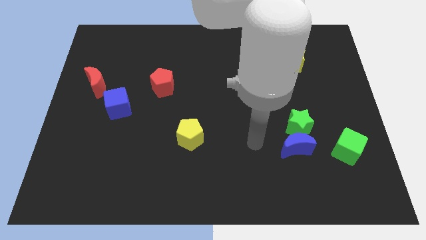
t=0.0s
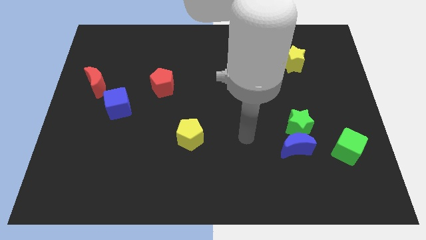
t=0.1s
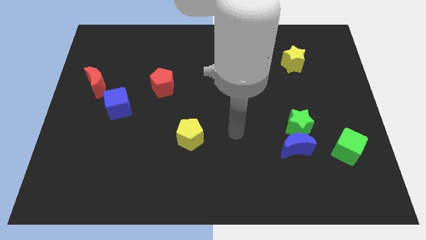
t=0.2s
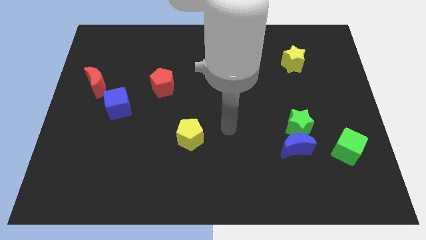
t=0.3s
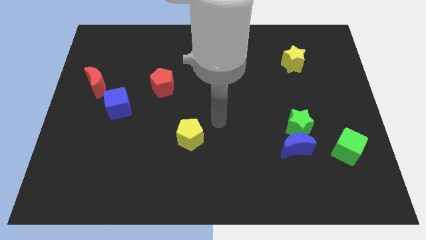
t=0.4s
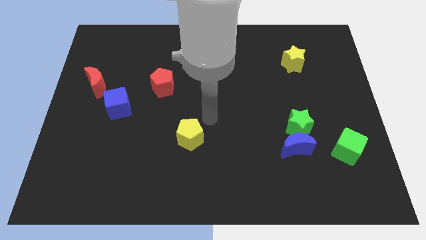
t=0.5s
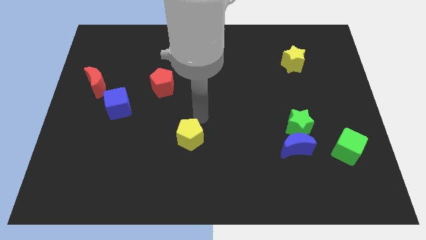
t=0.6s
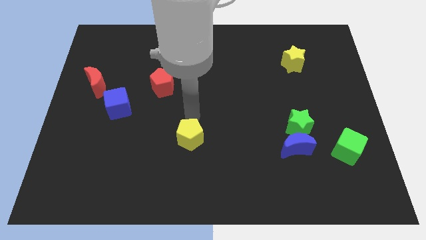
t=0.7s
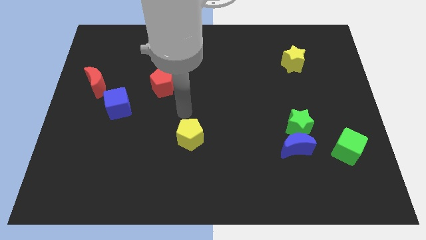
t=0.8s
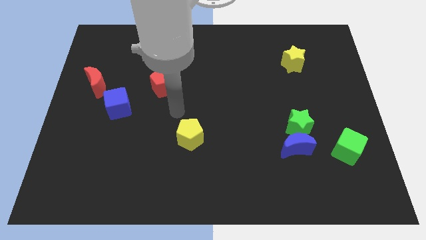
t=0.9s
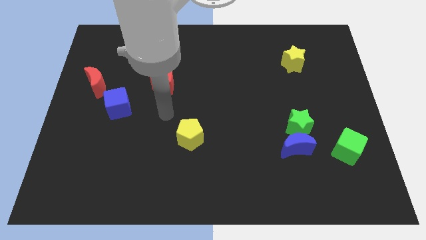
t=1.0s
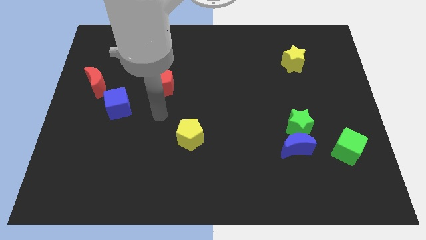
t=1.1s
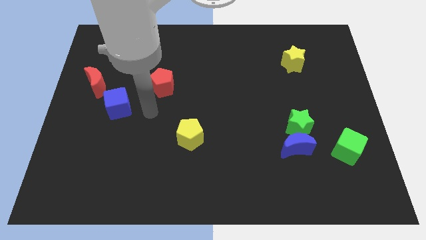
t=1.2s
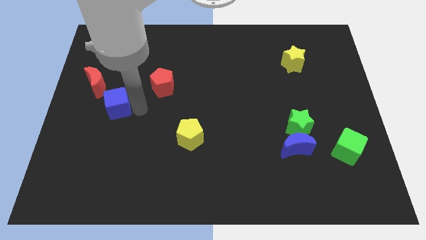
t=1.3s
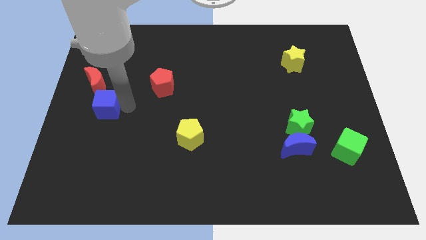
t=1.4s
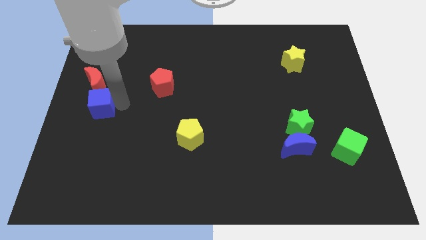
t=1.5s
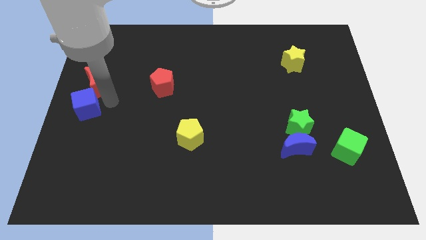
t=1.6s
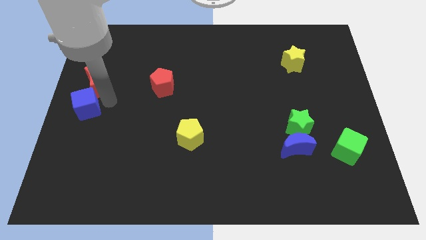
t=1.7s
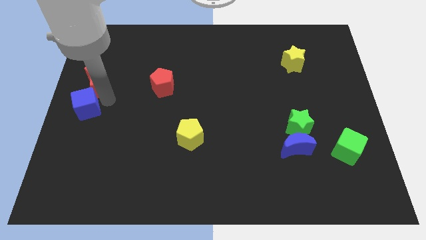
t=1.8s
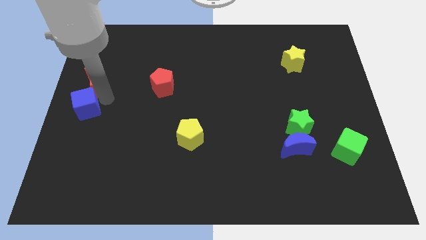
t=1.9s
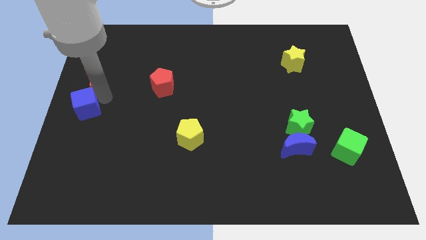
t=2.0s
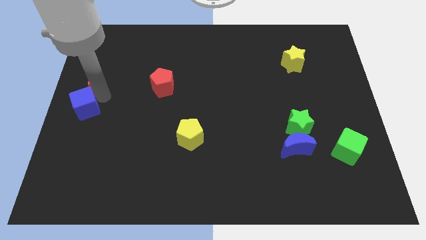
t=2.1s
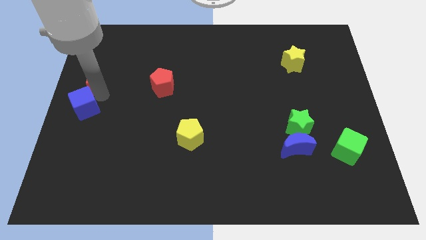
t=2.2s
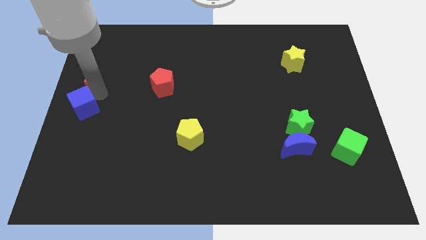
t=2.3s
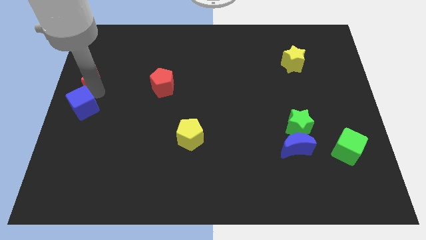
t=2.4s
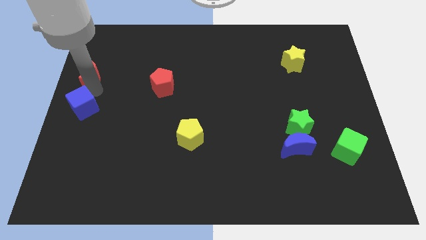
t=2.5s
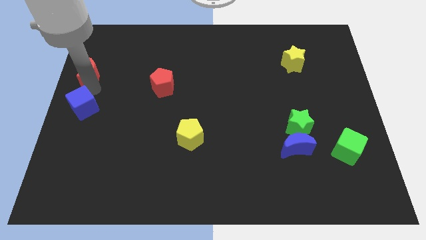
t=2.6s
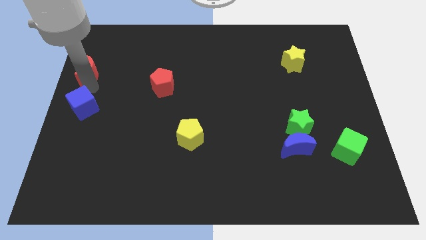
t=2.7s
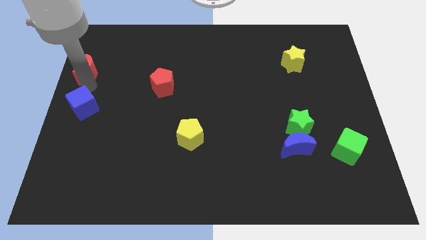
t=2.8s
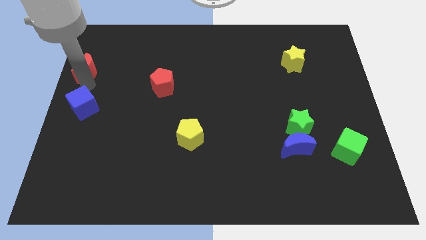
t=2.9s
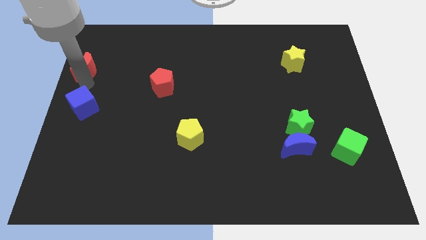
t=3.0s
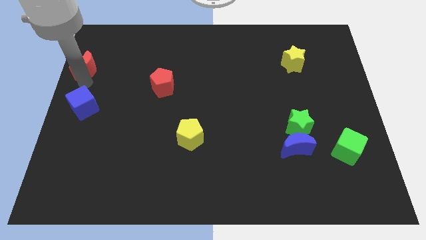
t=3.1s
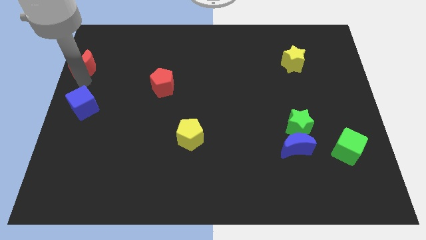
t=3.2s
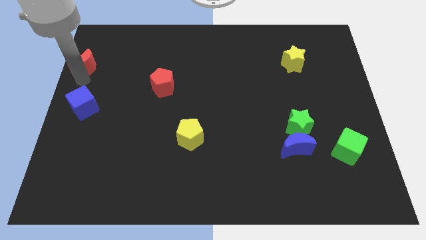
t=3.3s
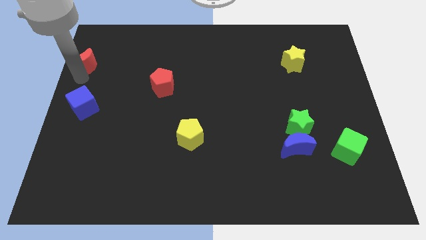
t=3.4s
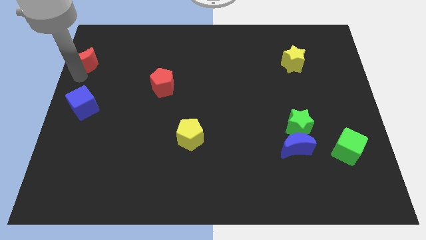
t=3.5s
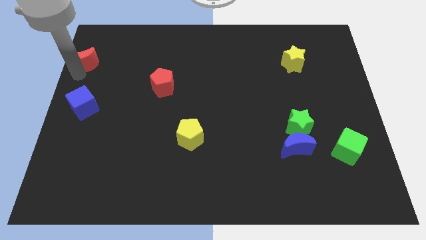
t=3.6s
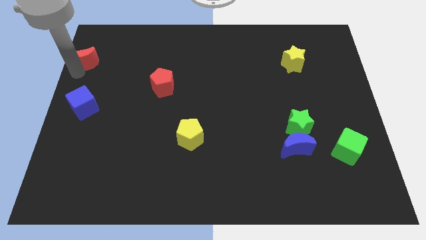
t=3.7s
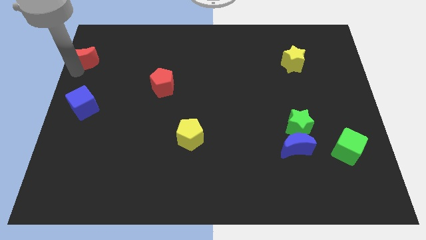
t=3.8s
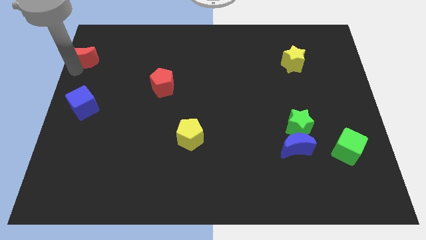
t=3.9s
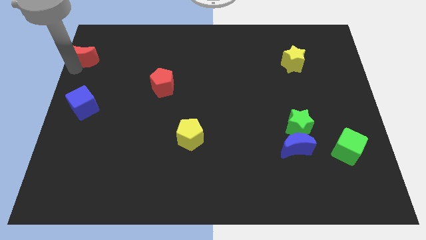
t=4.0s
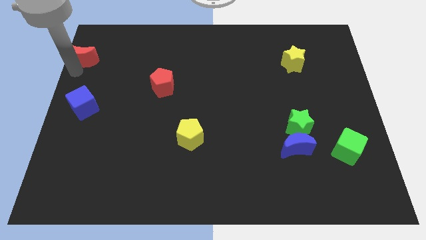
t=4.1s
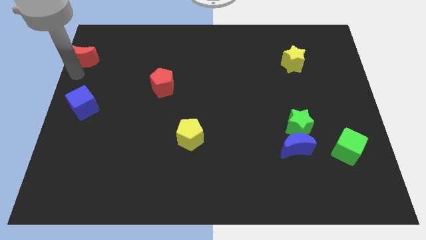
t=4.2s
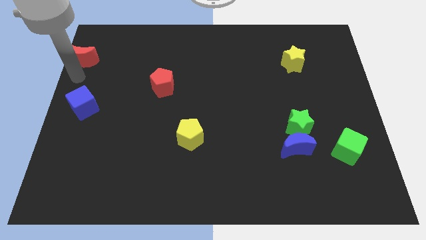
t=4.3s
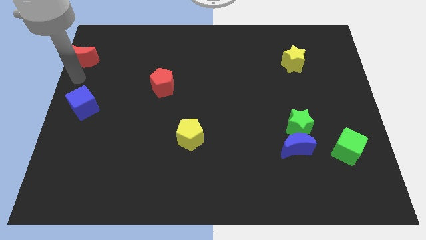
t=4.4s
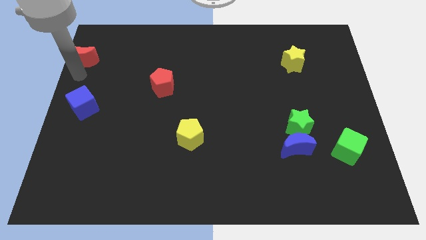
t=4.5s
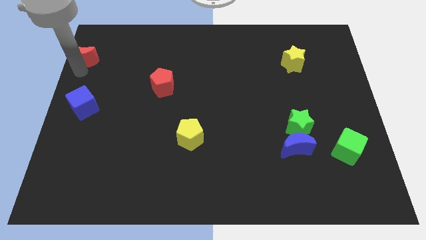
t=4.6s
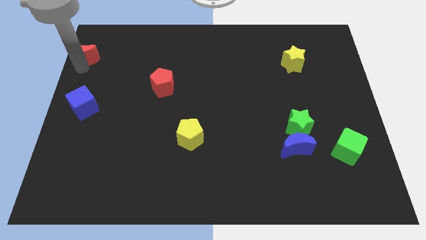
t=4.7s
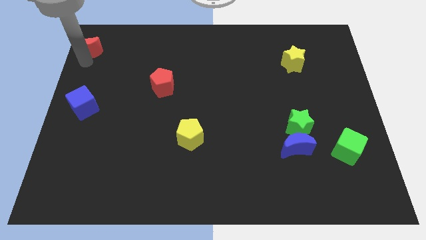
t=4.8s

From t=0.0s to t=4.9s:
push the red moon to the top left of the board

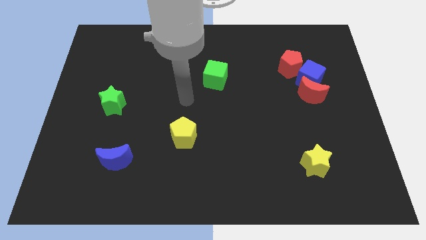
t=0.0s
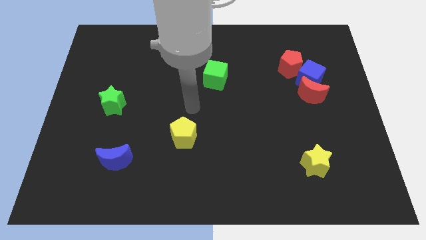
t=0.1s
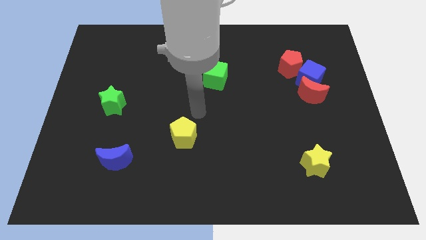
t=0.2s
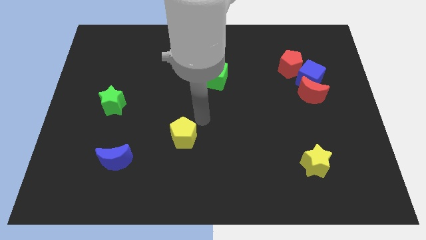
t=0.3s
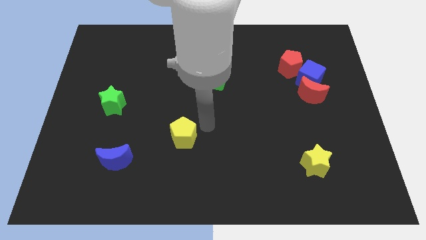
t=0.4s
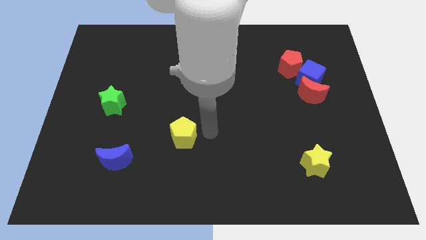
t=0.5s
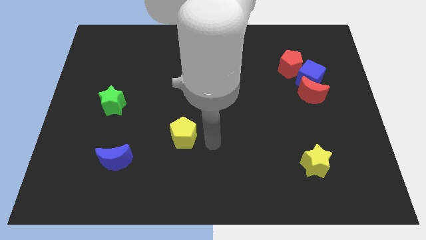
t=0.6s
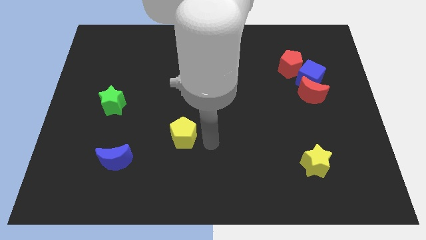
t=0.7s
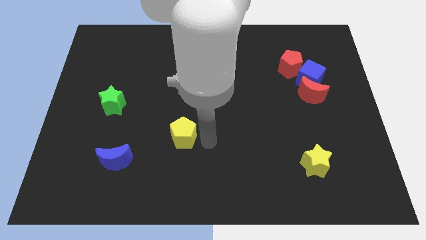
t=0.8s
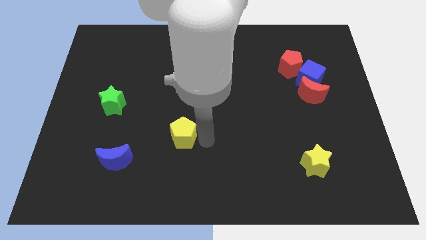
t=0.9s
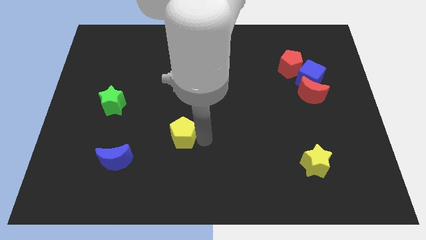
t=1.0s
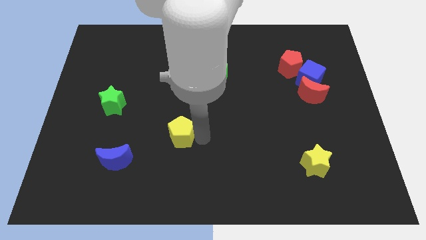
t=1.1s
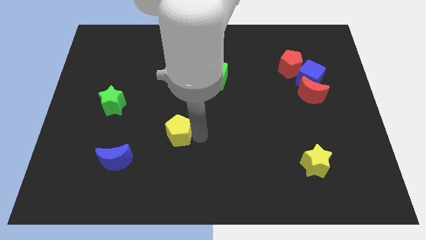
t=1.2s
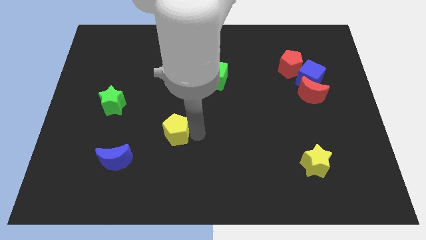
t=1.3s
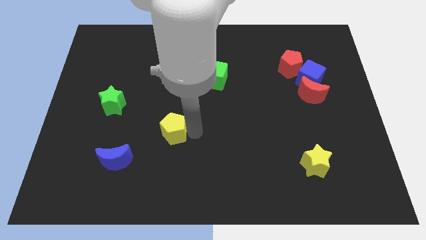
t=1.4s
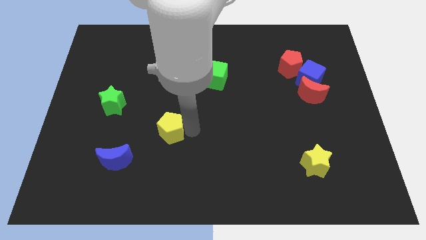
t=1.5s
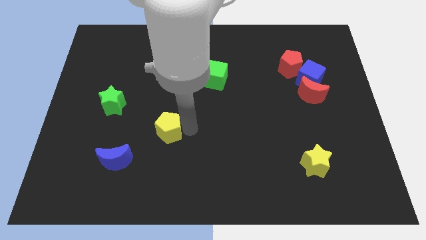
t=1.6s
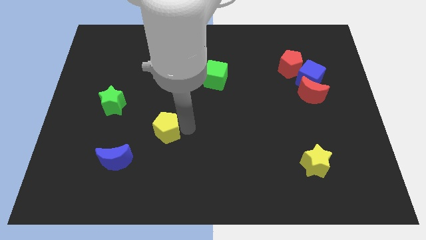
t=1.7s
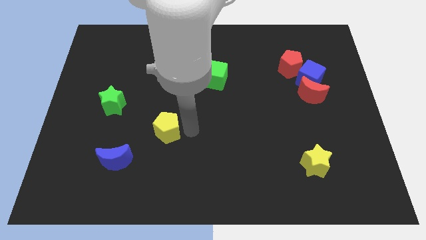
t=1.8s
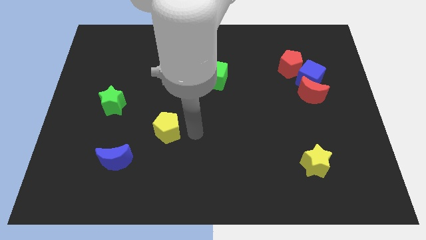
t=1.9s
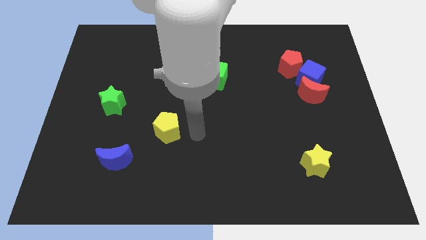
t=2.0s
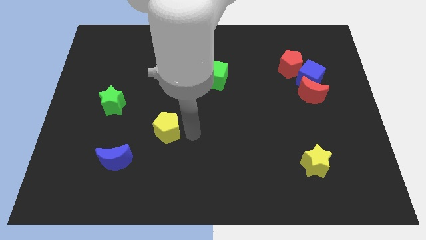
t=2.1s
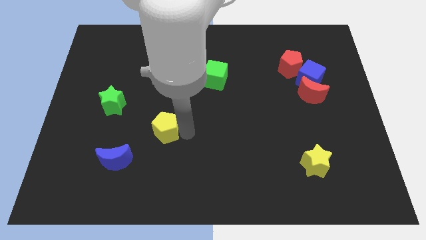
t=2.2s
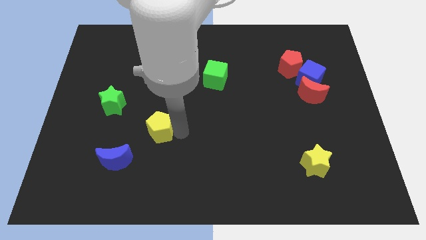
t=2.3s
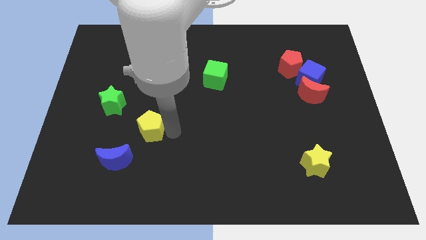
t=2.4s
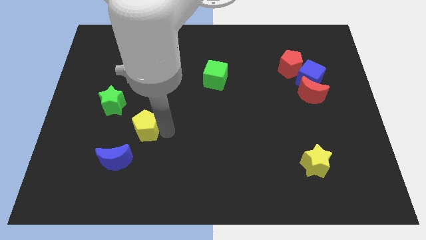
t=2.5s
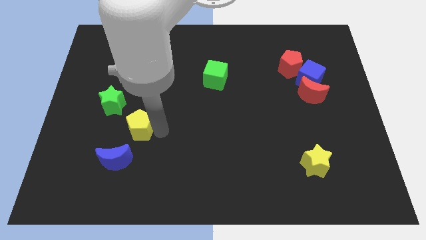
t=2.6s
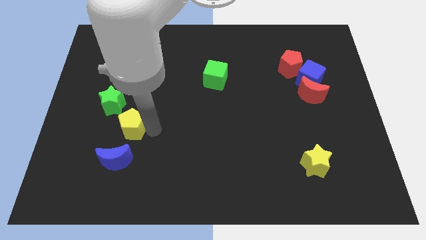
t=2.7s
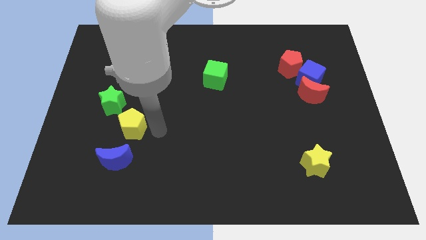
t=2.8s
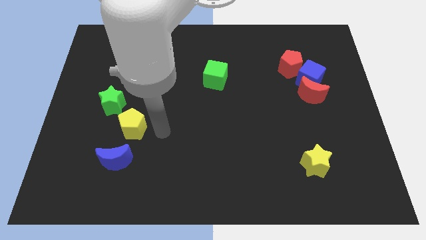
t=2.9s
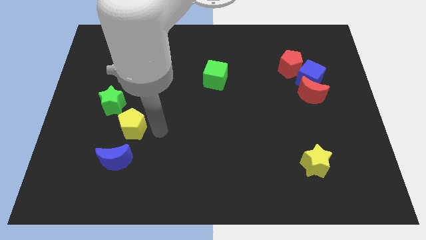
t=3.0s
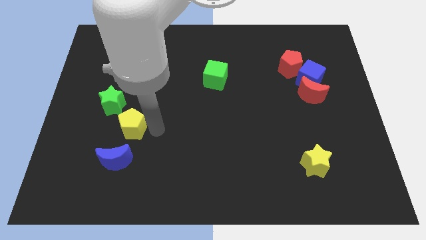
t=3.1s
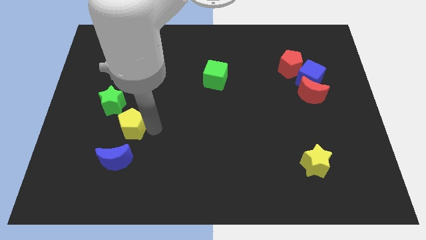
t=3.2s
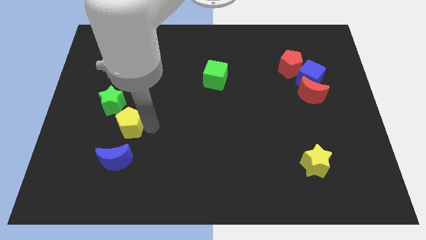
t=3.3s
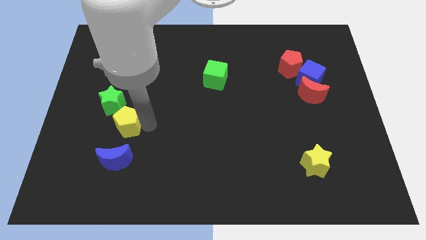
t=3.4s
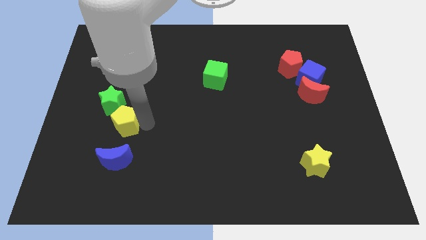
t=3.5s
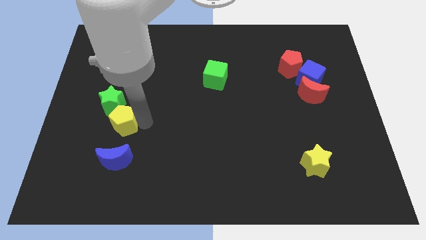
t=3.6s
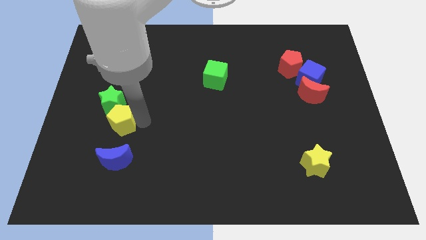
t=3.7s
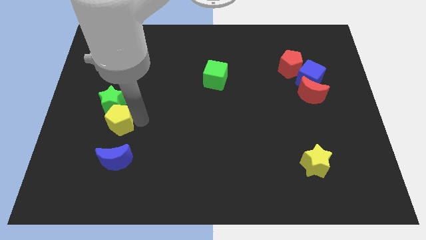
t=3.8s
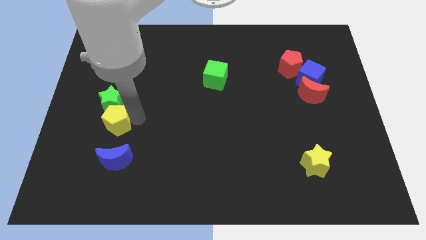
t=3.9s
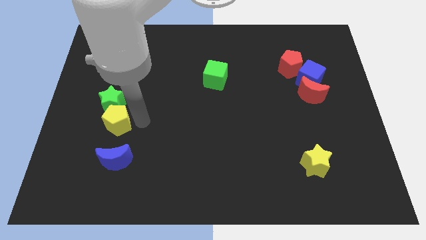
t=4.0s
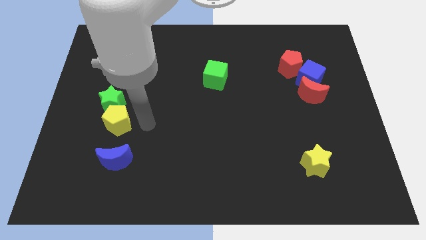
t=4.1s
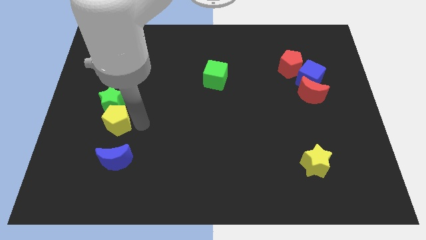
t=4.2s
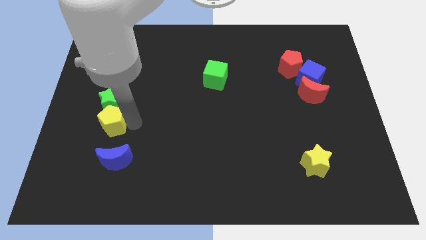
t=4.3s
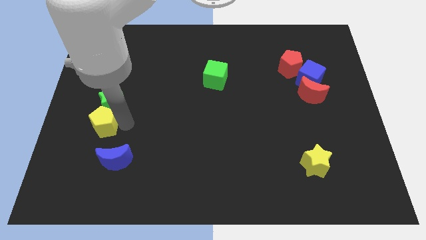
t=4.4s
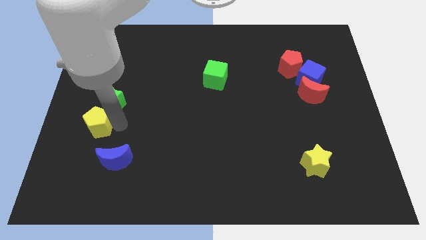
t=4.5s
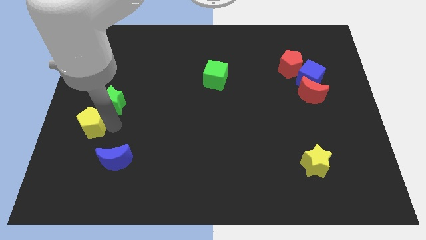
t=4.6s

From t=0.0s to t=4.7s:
push the yellow pentagon to the left side of the board
